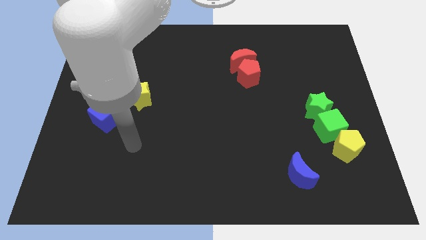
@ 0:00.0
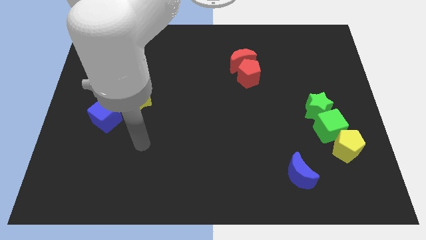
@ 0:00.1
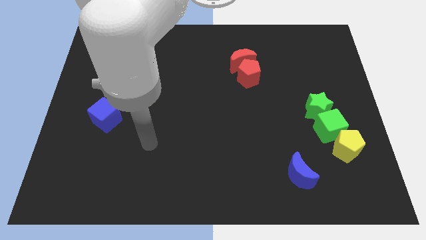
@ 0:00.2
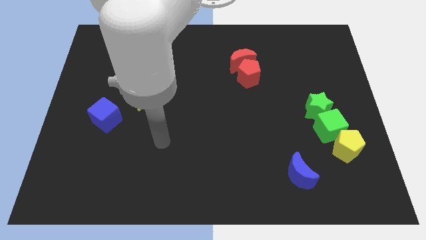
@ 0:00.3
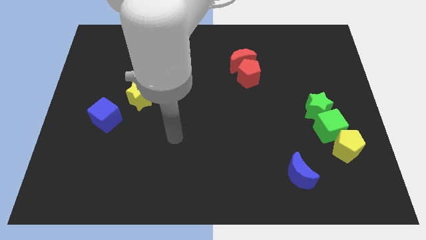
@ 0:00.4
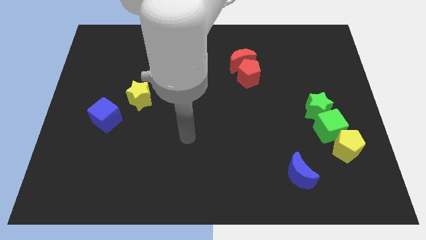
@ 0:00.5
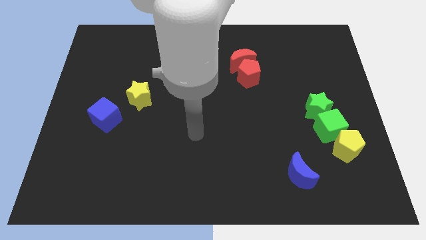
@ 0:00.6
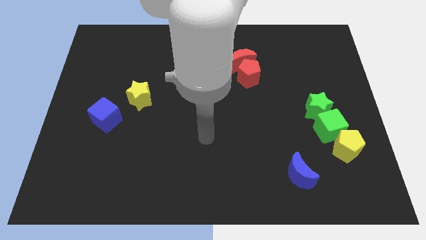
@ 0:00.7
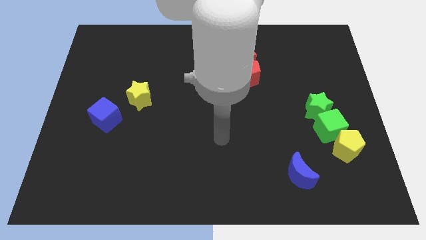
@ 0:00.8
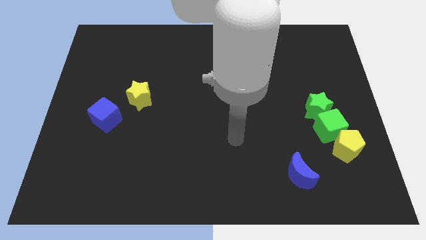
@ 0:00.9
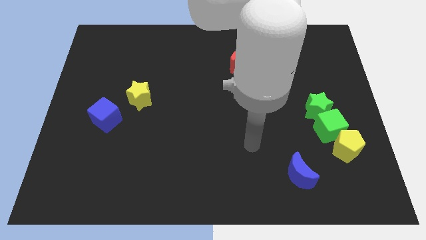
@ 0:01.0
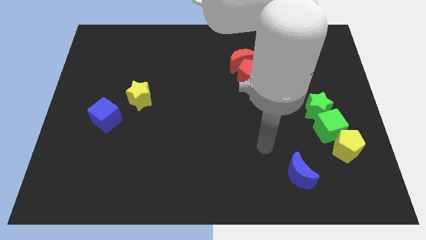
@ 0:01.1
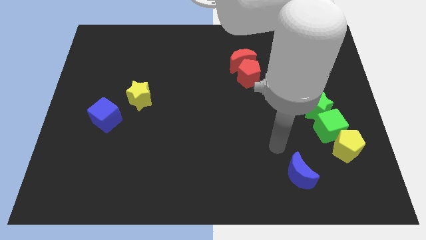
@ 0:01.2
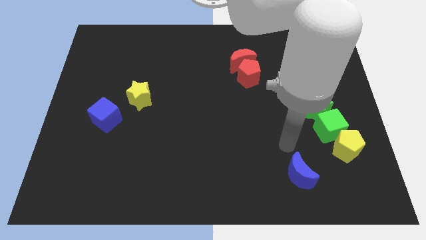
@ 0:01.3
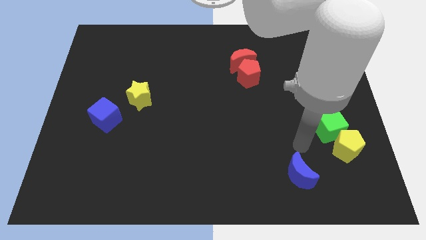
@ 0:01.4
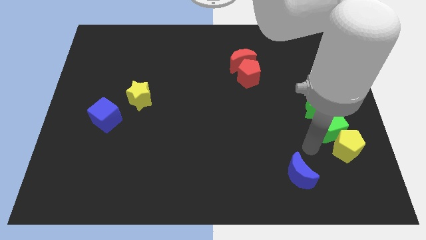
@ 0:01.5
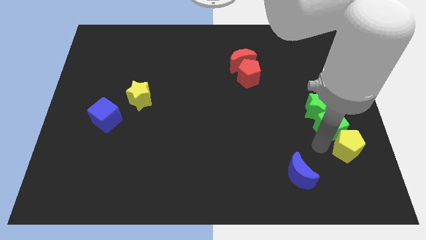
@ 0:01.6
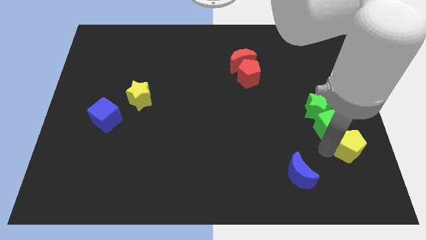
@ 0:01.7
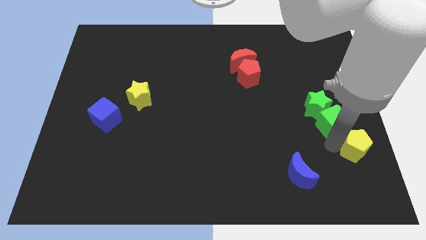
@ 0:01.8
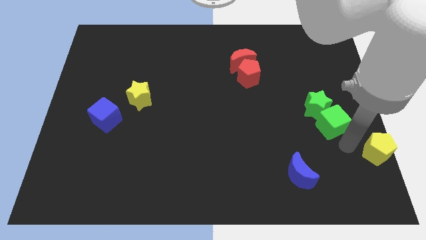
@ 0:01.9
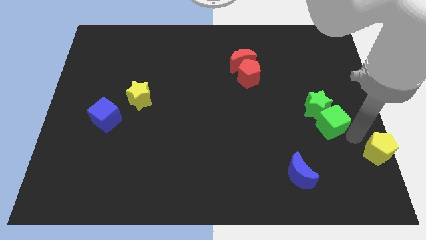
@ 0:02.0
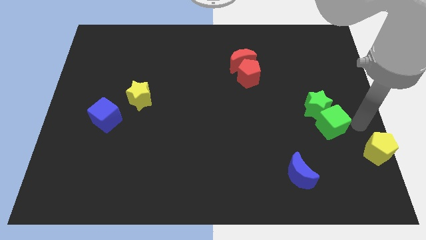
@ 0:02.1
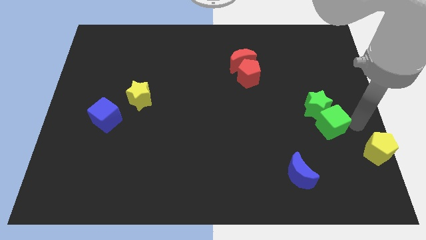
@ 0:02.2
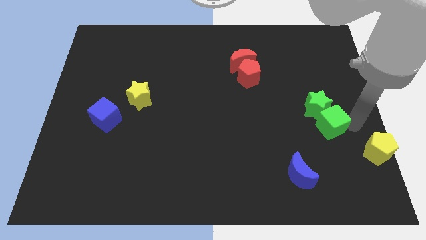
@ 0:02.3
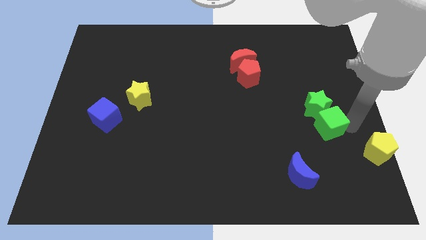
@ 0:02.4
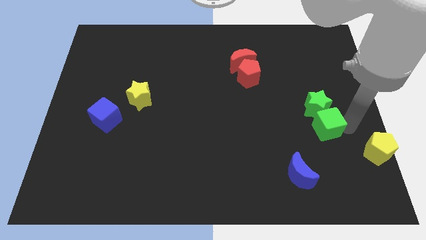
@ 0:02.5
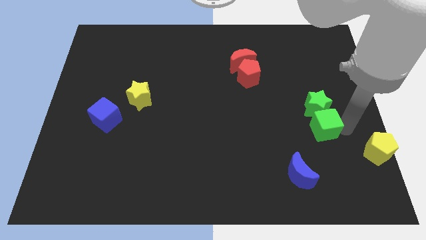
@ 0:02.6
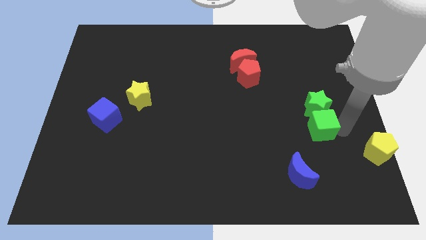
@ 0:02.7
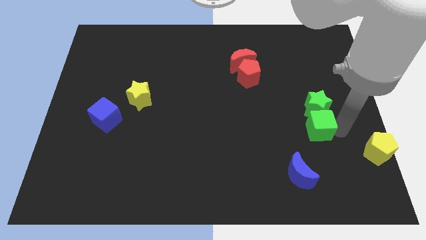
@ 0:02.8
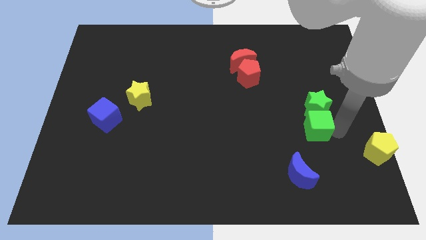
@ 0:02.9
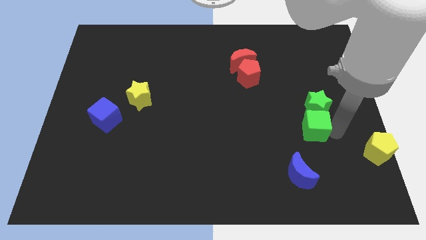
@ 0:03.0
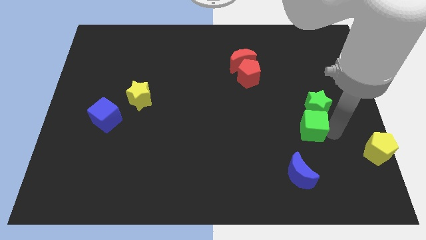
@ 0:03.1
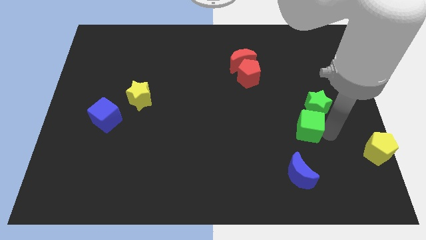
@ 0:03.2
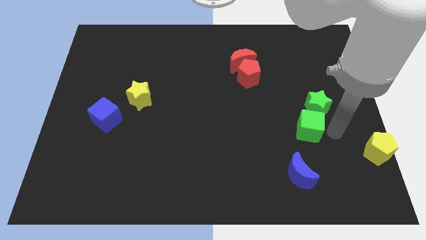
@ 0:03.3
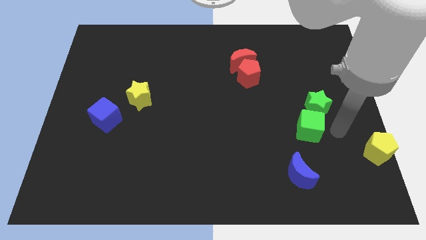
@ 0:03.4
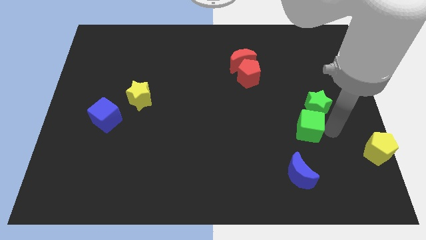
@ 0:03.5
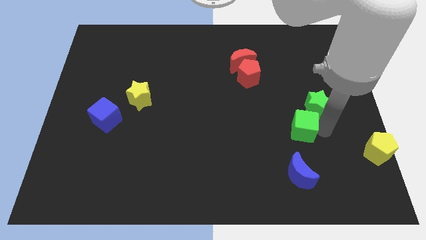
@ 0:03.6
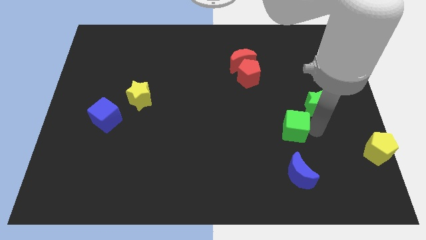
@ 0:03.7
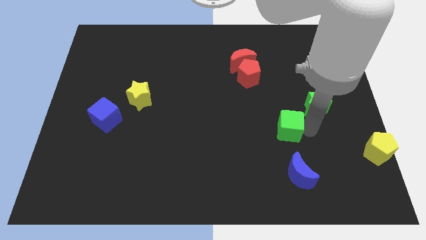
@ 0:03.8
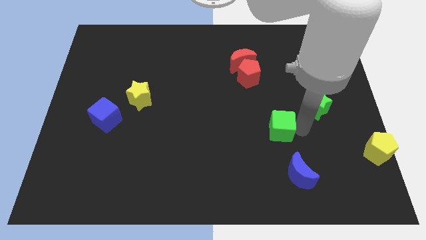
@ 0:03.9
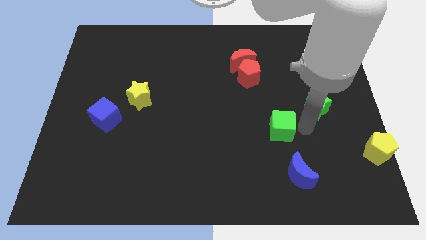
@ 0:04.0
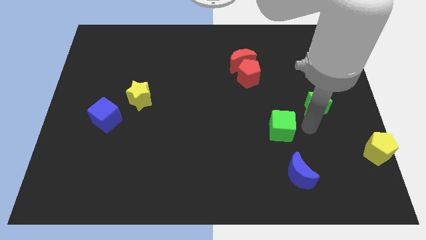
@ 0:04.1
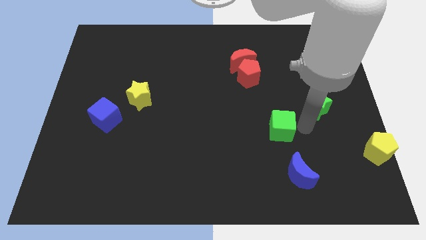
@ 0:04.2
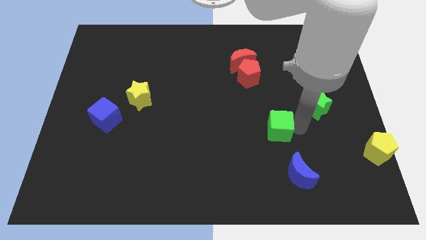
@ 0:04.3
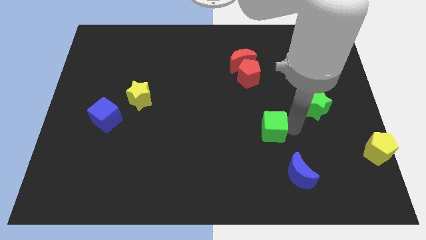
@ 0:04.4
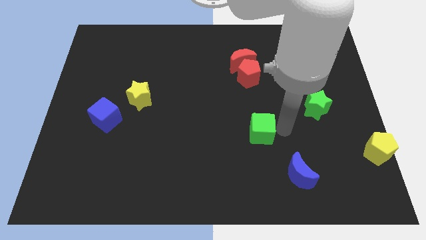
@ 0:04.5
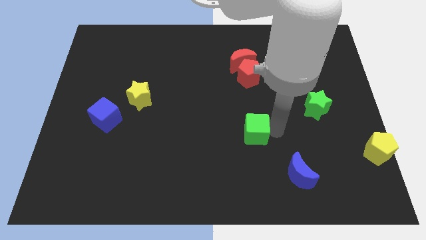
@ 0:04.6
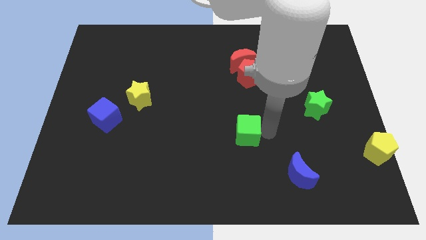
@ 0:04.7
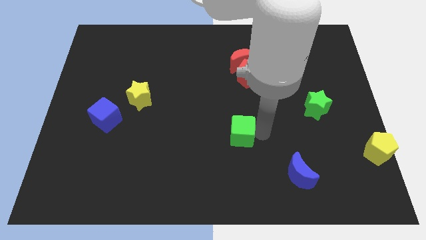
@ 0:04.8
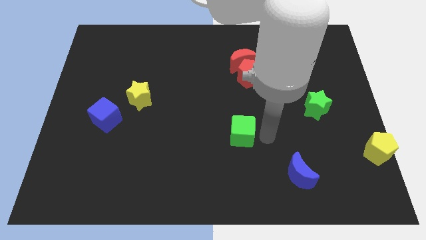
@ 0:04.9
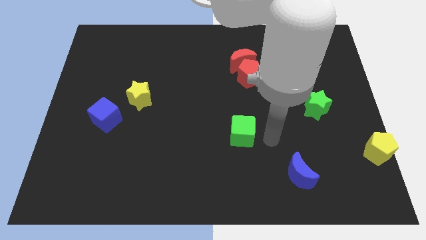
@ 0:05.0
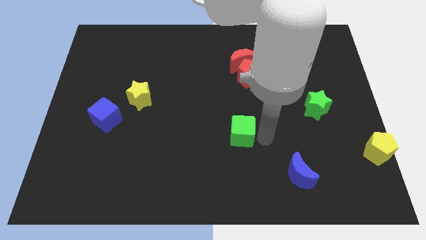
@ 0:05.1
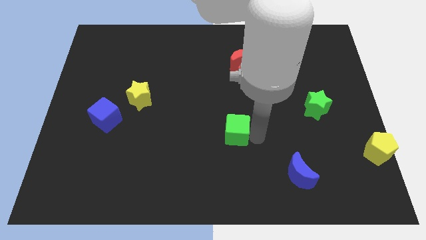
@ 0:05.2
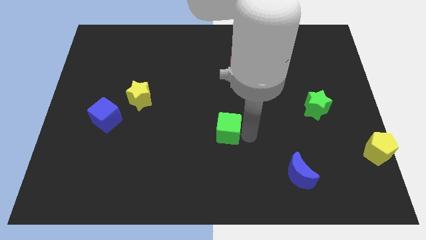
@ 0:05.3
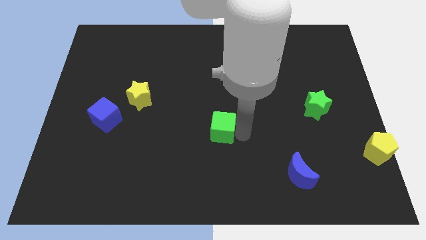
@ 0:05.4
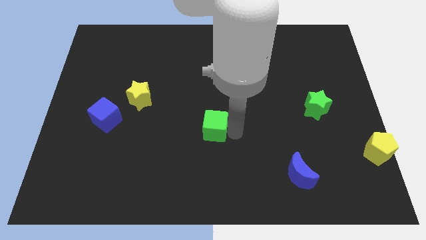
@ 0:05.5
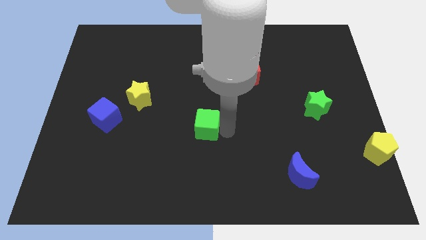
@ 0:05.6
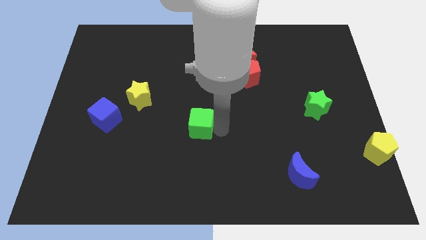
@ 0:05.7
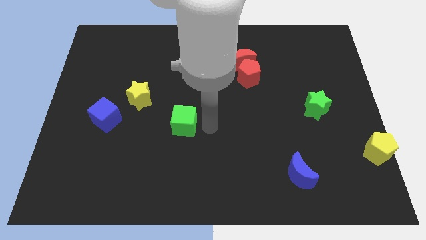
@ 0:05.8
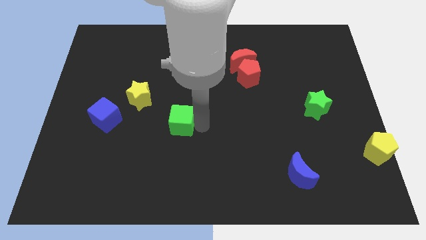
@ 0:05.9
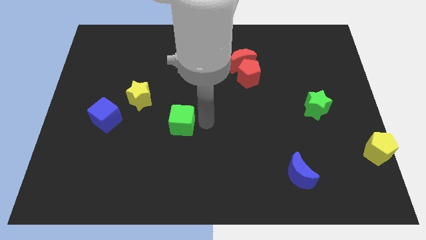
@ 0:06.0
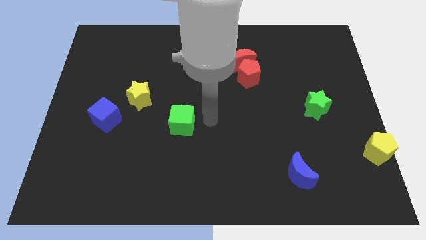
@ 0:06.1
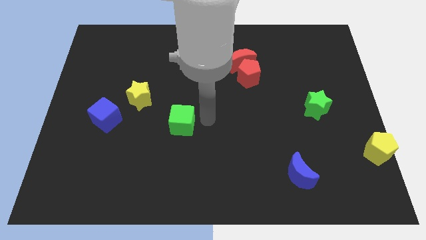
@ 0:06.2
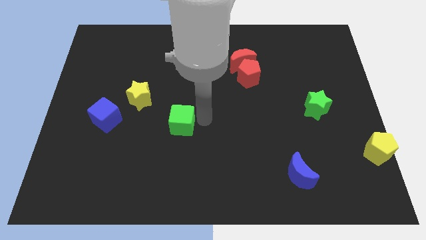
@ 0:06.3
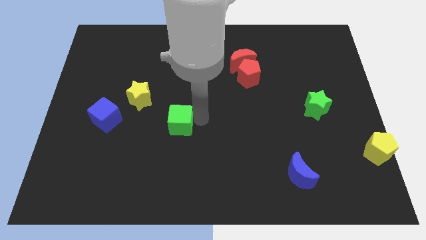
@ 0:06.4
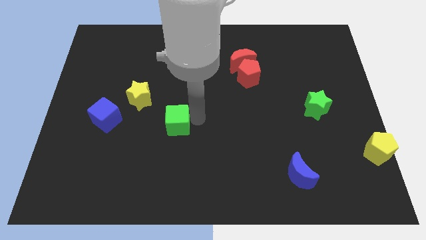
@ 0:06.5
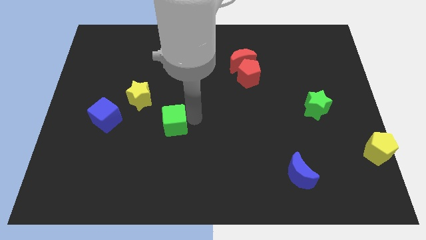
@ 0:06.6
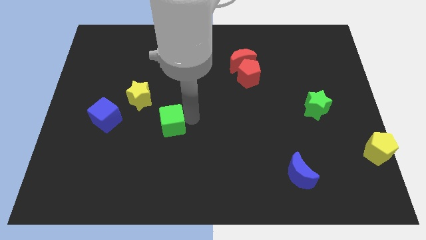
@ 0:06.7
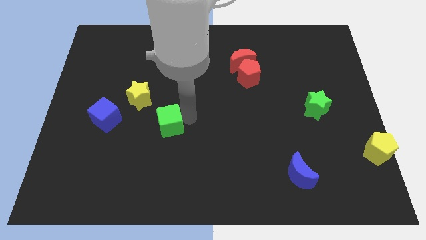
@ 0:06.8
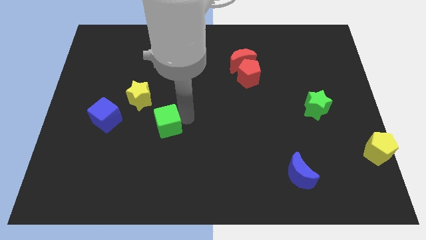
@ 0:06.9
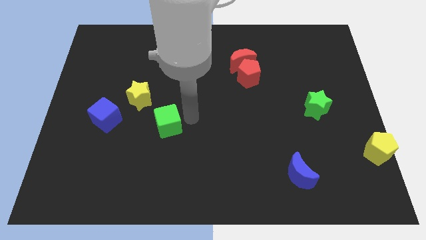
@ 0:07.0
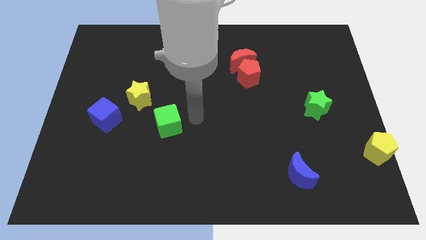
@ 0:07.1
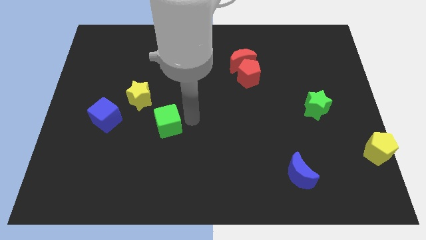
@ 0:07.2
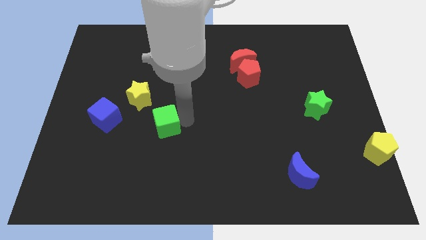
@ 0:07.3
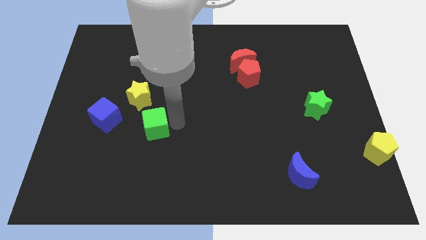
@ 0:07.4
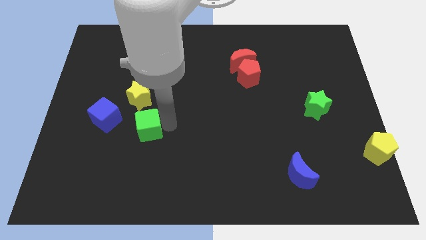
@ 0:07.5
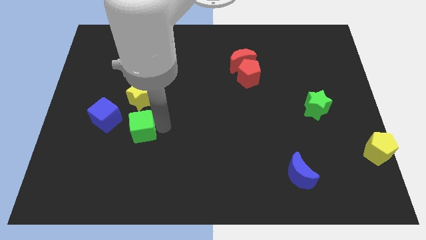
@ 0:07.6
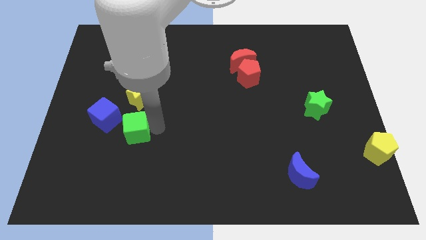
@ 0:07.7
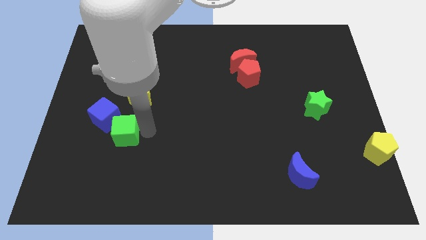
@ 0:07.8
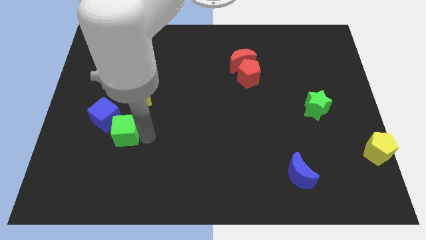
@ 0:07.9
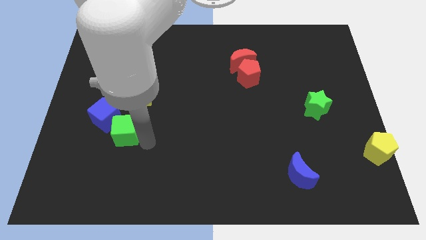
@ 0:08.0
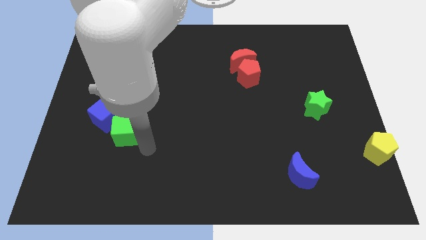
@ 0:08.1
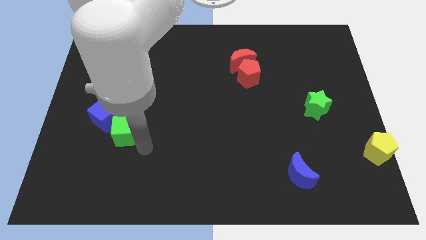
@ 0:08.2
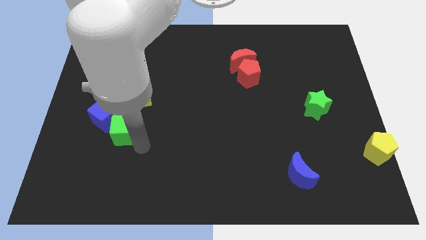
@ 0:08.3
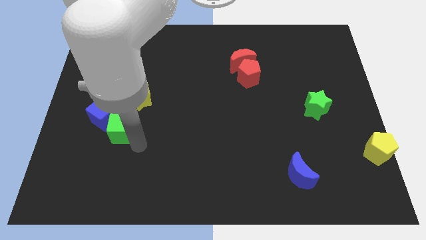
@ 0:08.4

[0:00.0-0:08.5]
slide the green cube next to the blue cube

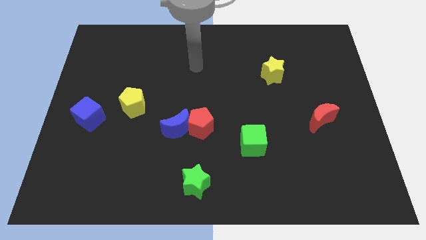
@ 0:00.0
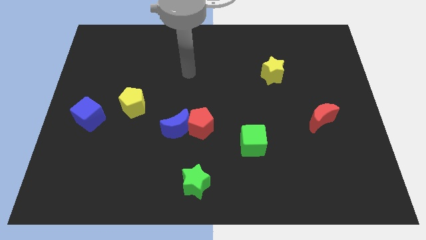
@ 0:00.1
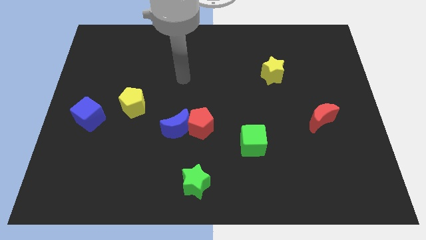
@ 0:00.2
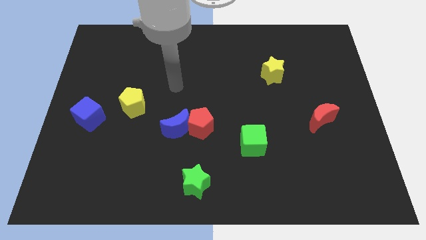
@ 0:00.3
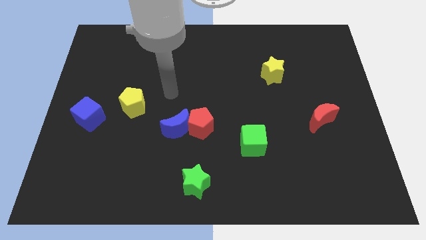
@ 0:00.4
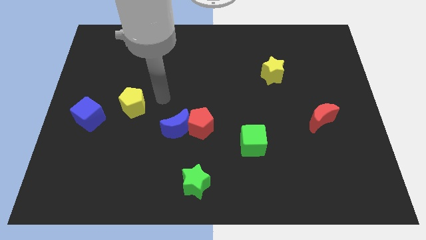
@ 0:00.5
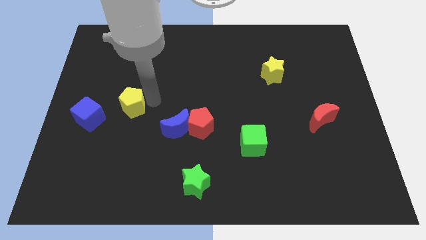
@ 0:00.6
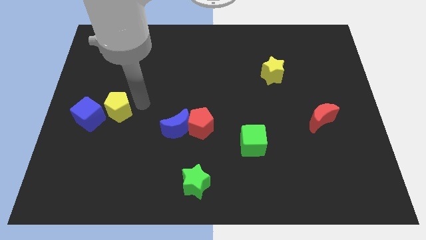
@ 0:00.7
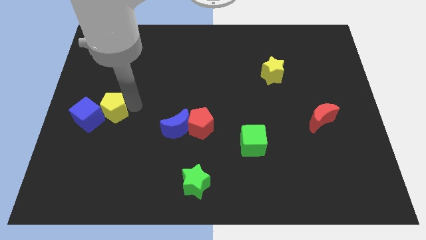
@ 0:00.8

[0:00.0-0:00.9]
push the yellow pentagon to the blue cube
